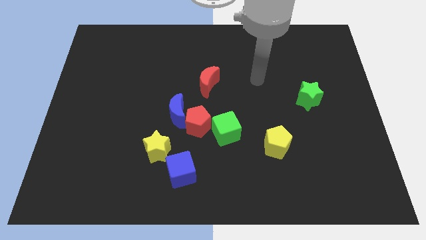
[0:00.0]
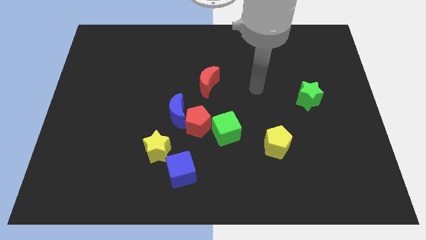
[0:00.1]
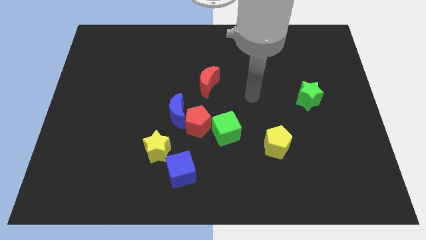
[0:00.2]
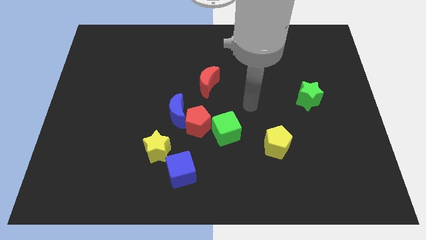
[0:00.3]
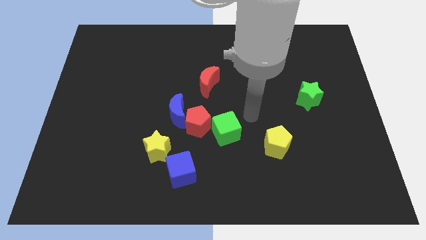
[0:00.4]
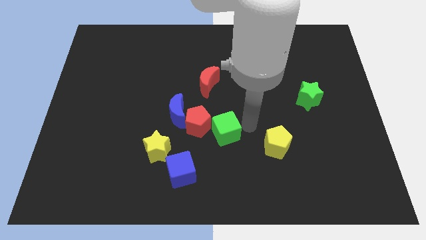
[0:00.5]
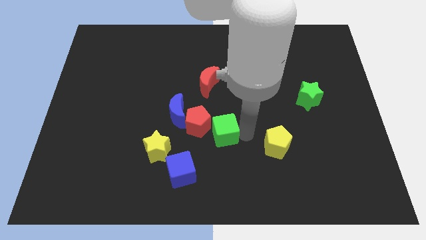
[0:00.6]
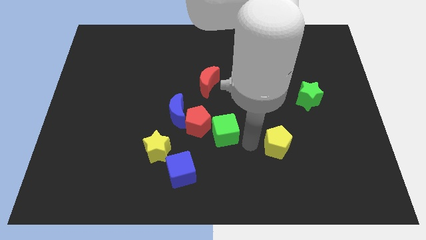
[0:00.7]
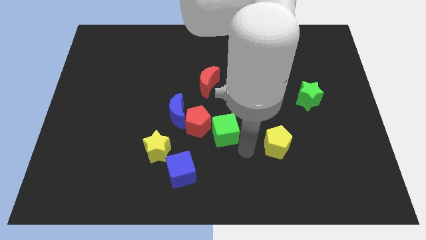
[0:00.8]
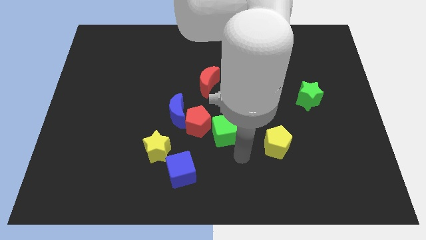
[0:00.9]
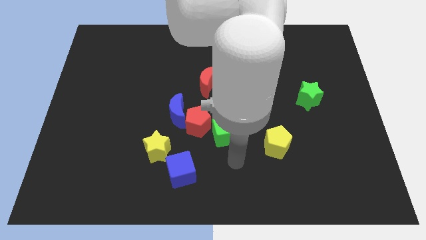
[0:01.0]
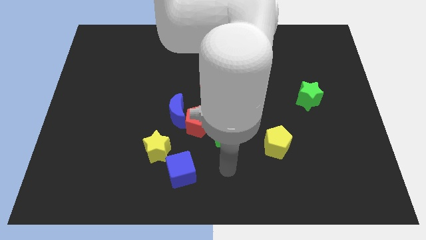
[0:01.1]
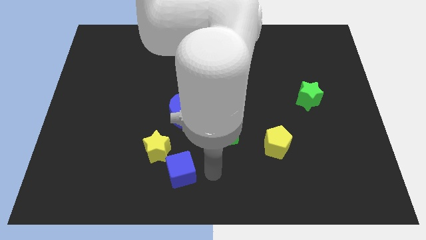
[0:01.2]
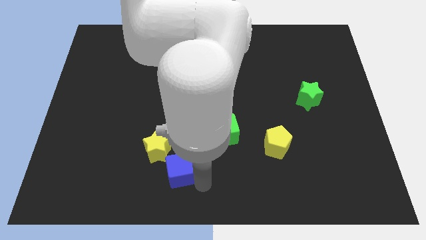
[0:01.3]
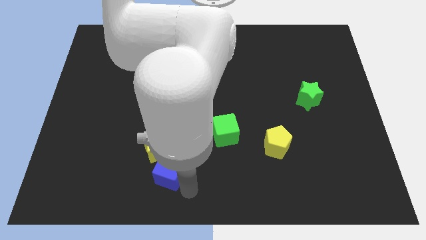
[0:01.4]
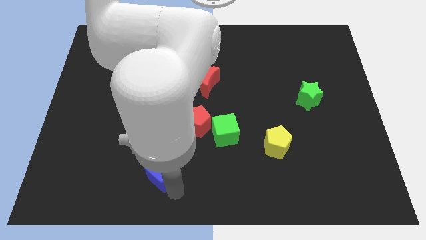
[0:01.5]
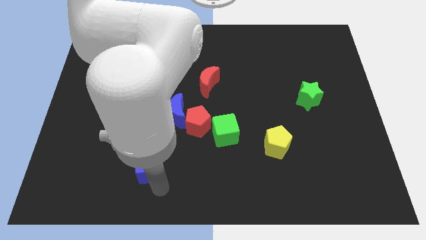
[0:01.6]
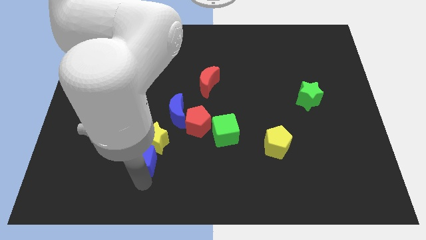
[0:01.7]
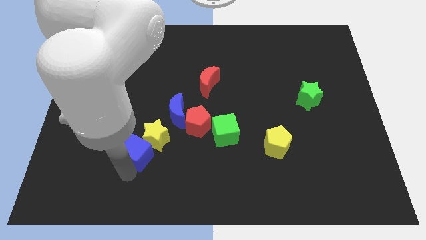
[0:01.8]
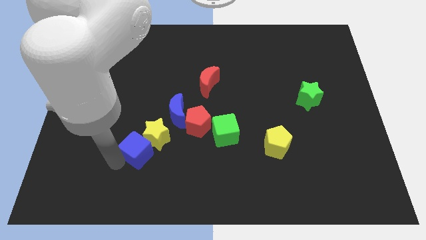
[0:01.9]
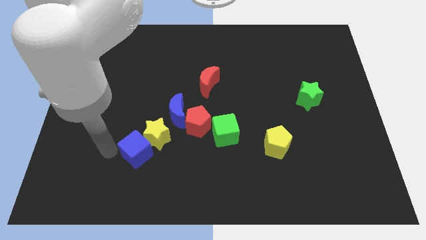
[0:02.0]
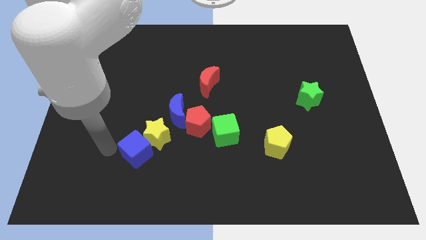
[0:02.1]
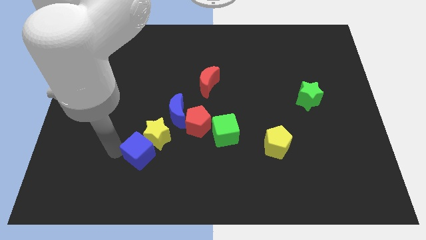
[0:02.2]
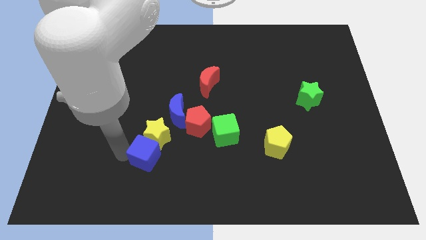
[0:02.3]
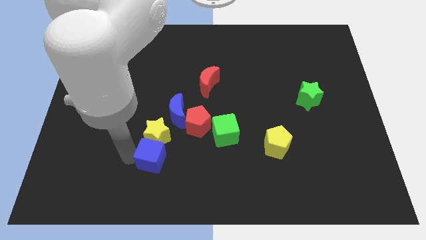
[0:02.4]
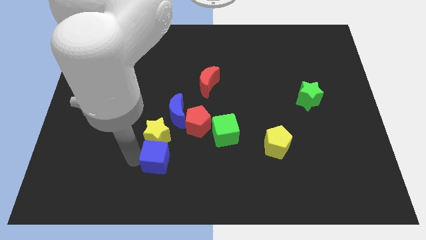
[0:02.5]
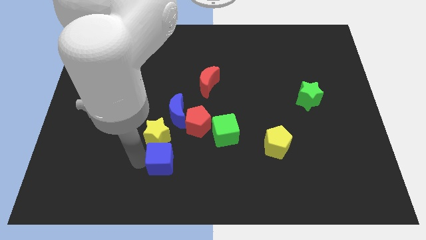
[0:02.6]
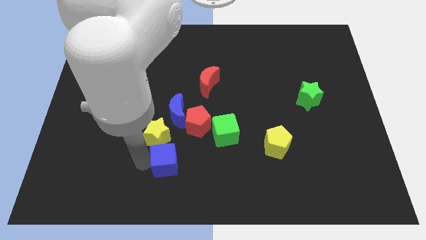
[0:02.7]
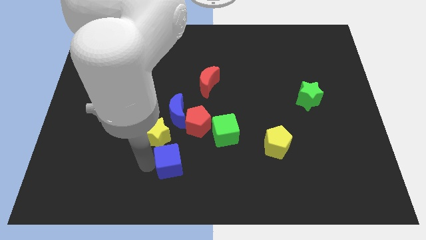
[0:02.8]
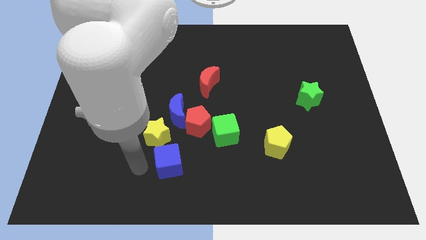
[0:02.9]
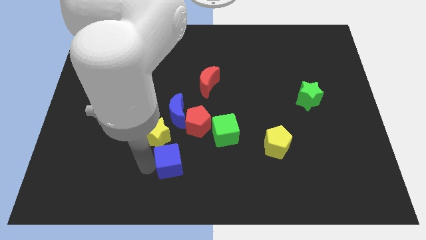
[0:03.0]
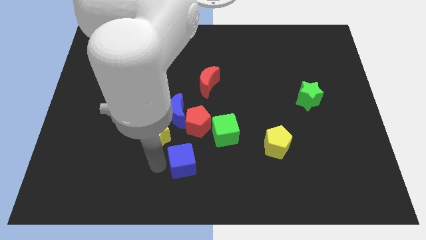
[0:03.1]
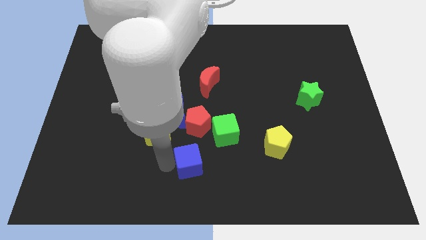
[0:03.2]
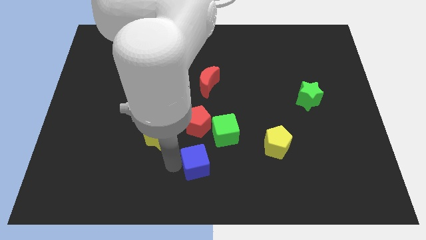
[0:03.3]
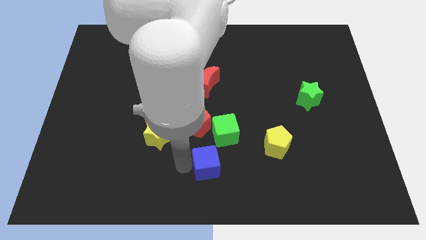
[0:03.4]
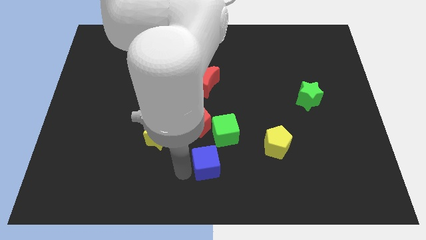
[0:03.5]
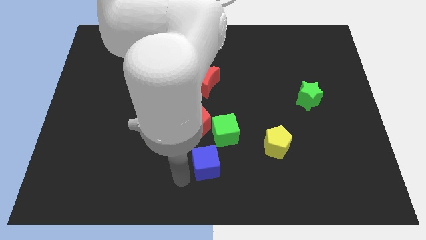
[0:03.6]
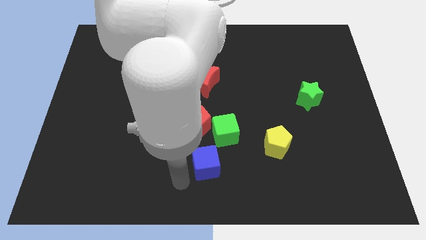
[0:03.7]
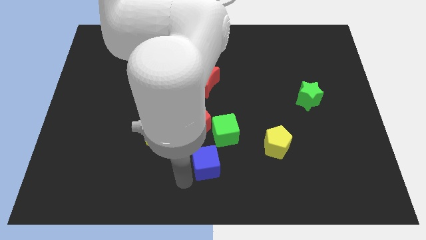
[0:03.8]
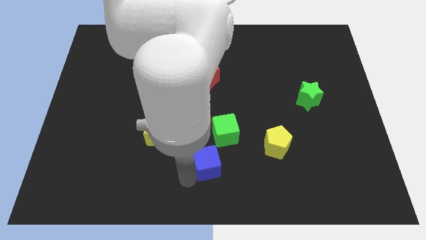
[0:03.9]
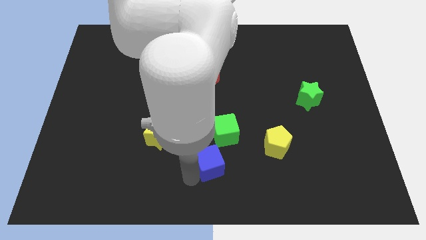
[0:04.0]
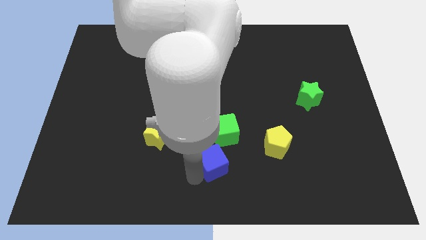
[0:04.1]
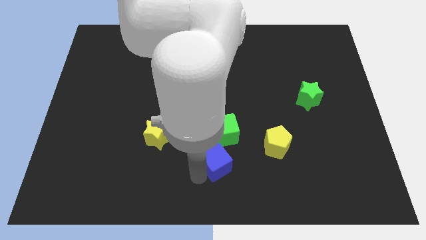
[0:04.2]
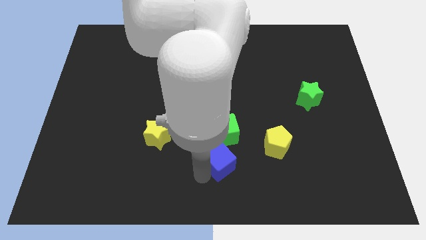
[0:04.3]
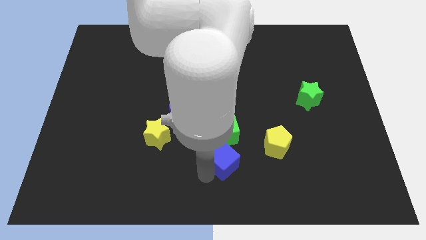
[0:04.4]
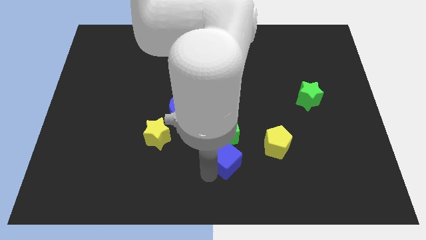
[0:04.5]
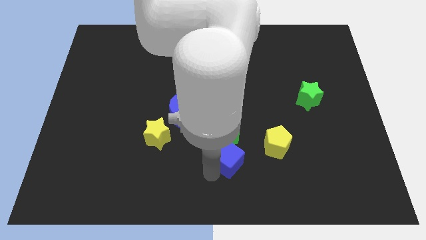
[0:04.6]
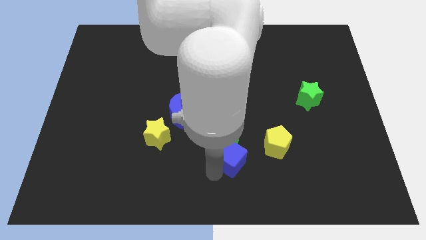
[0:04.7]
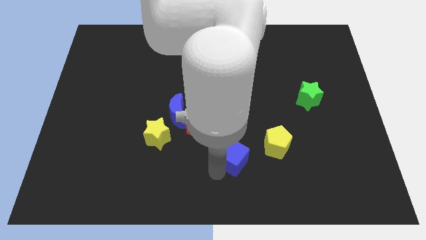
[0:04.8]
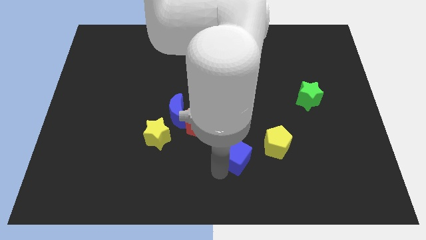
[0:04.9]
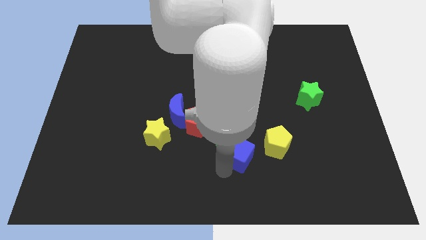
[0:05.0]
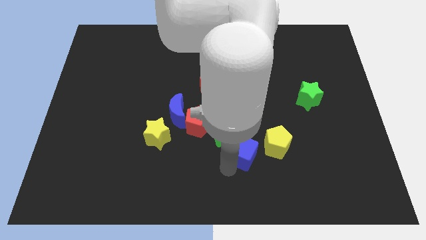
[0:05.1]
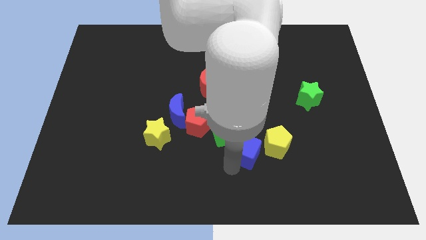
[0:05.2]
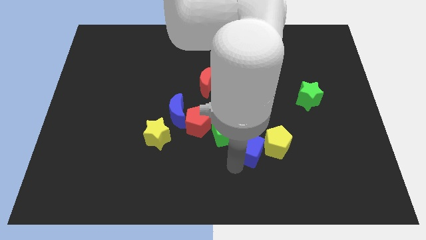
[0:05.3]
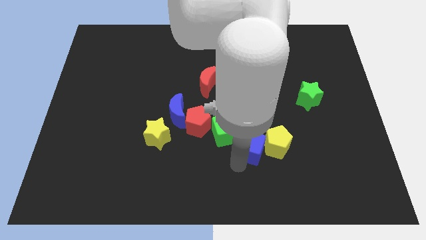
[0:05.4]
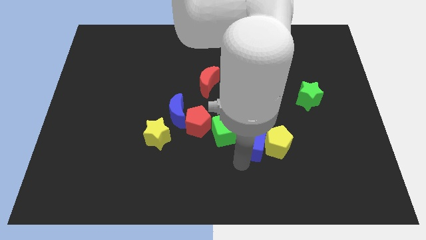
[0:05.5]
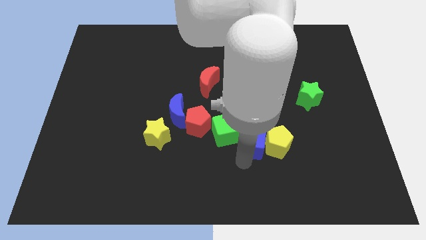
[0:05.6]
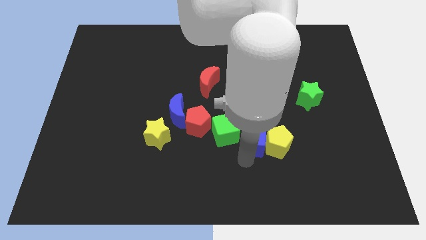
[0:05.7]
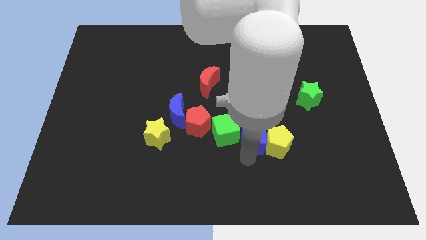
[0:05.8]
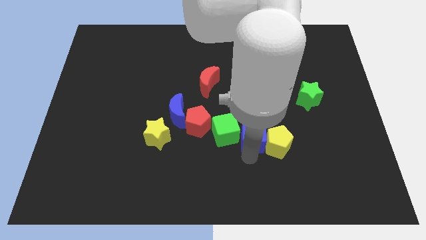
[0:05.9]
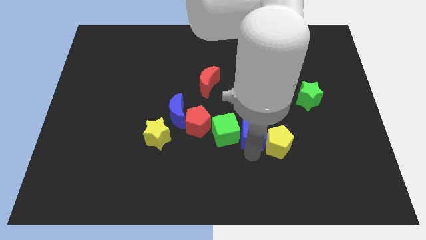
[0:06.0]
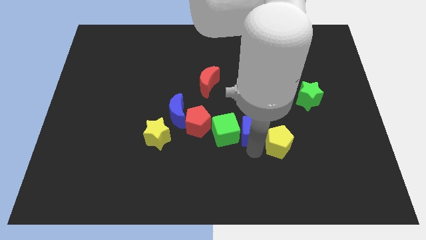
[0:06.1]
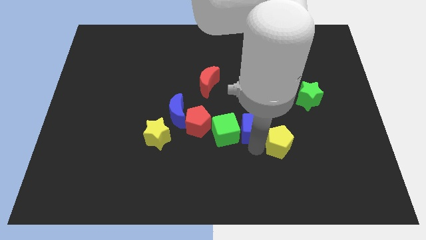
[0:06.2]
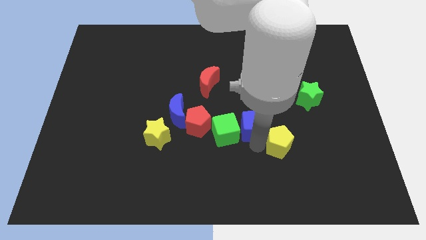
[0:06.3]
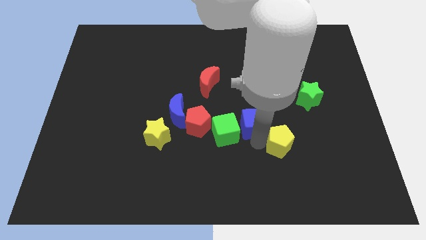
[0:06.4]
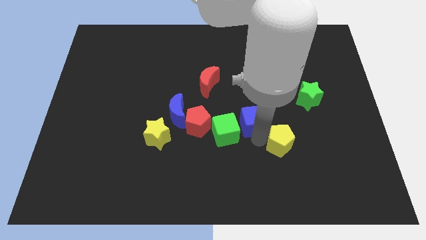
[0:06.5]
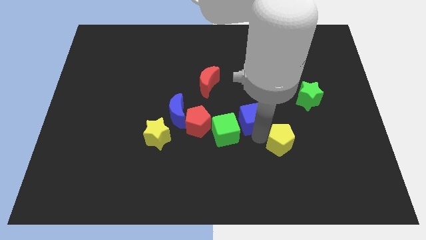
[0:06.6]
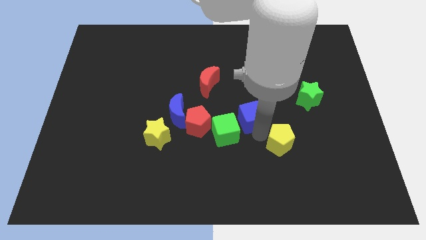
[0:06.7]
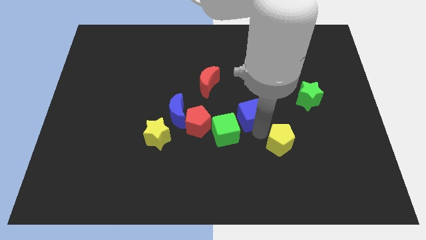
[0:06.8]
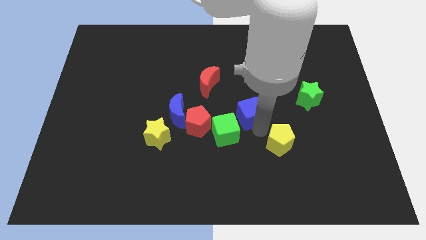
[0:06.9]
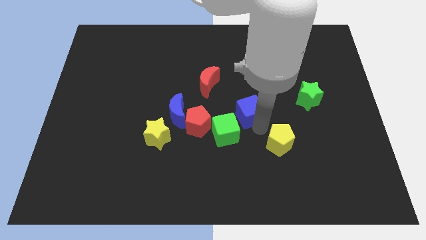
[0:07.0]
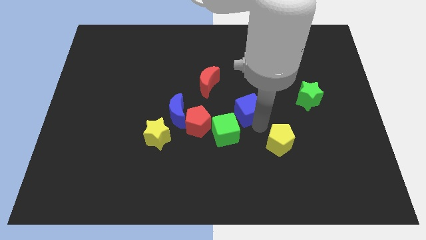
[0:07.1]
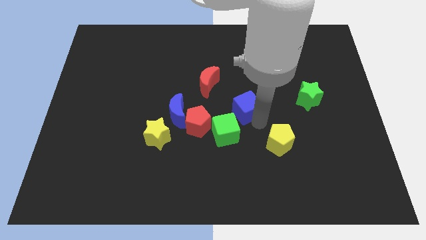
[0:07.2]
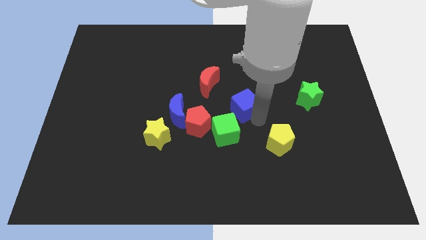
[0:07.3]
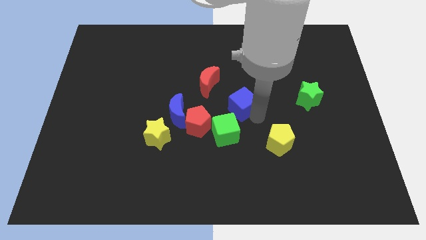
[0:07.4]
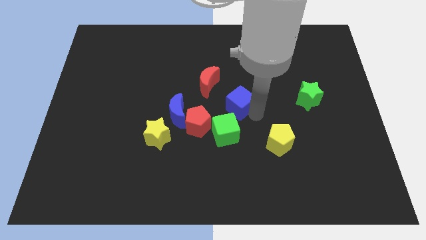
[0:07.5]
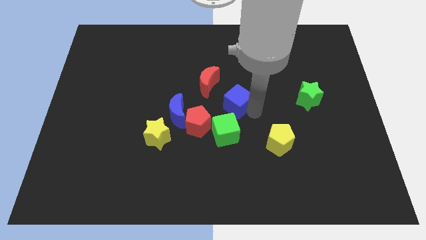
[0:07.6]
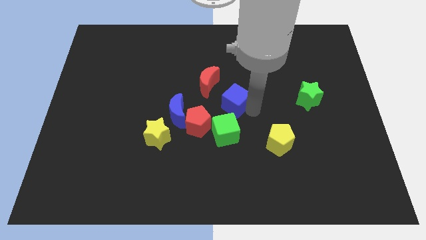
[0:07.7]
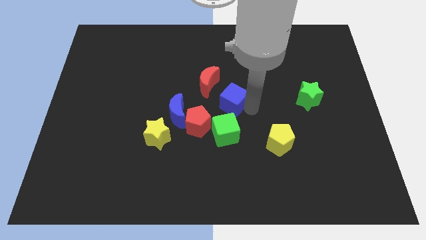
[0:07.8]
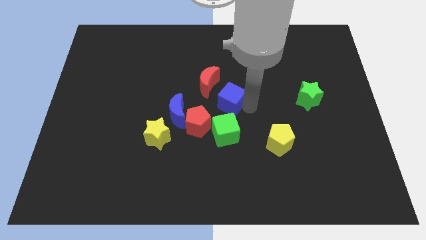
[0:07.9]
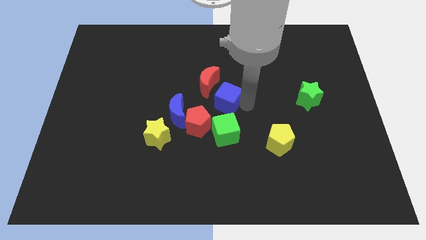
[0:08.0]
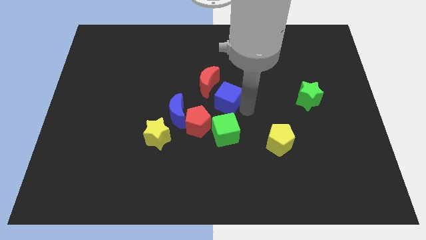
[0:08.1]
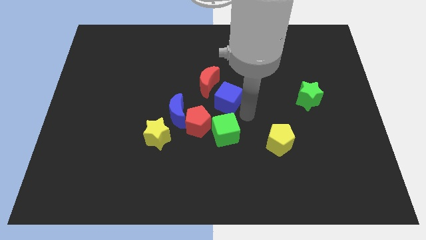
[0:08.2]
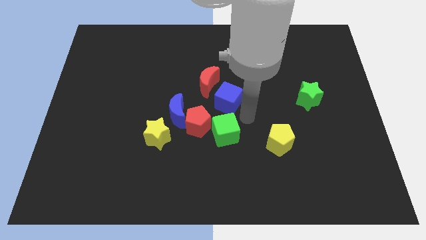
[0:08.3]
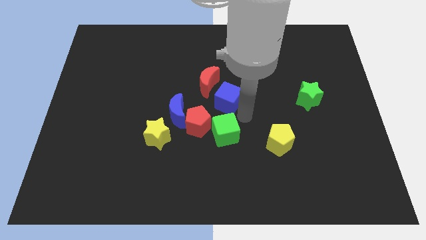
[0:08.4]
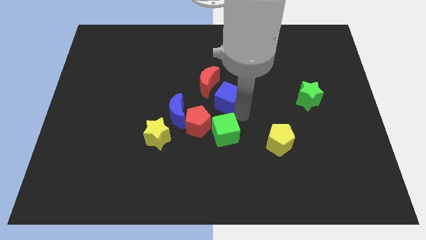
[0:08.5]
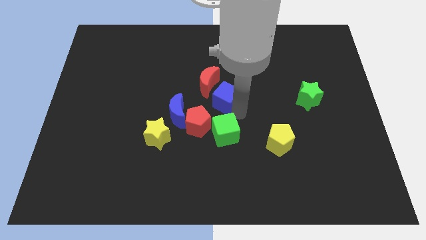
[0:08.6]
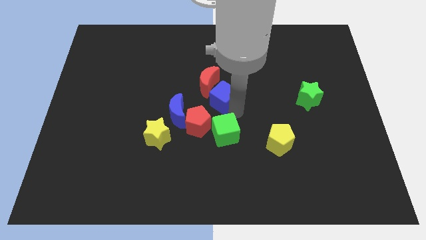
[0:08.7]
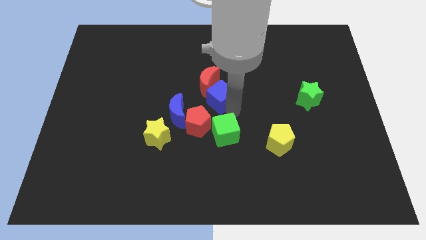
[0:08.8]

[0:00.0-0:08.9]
put the blue cube next to the red moon
